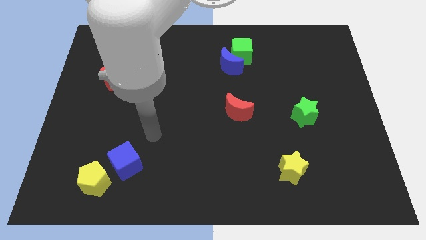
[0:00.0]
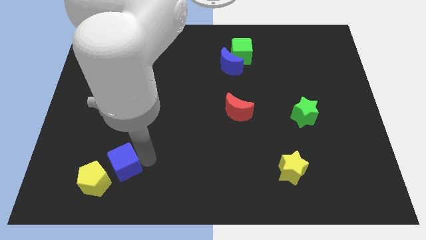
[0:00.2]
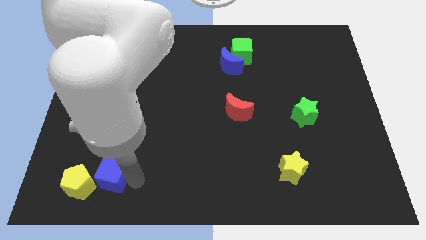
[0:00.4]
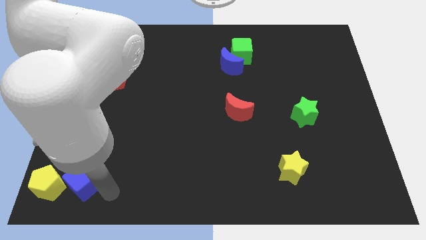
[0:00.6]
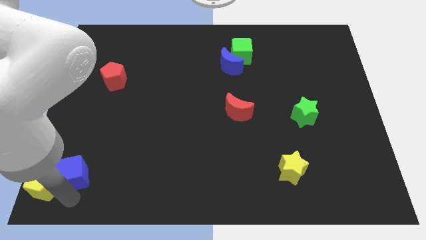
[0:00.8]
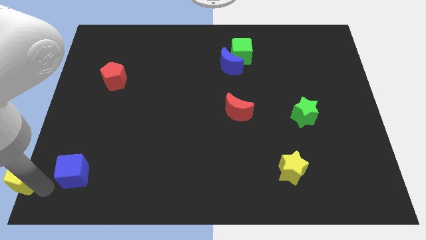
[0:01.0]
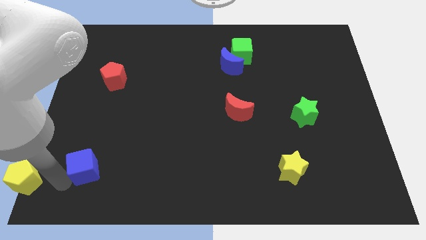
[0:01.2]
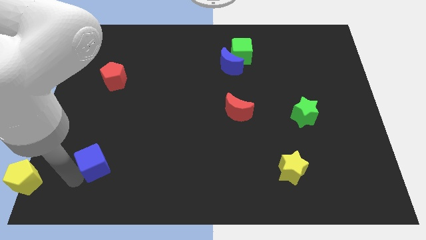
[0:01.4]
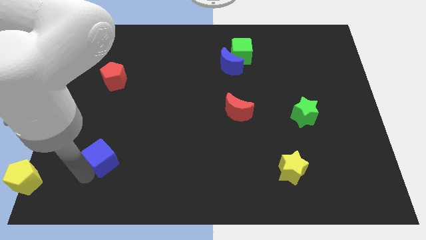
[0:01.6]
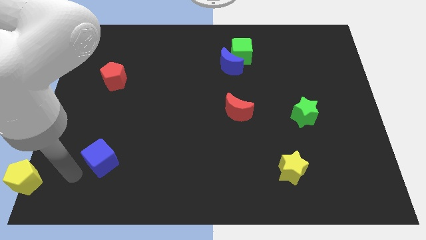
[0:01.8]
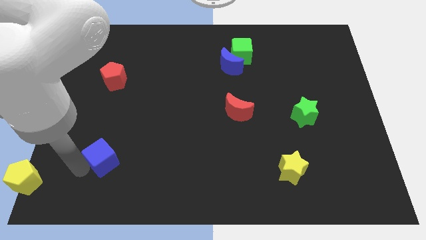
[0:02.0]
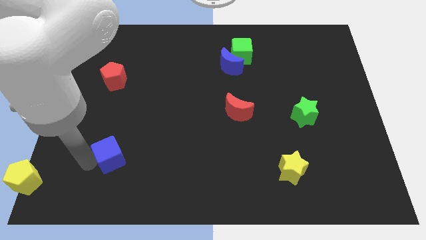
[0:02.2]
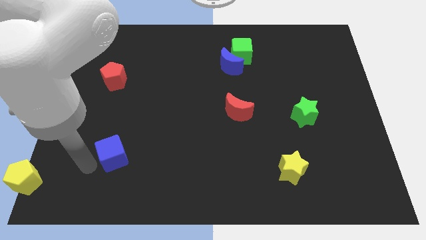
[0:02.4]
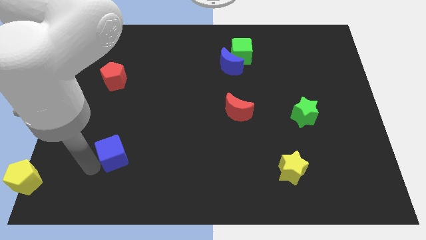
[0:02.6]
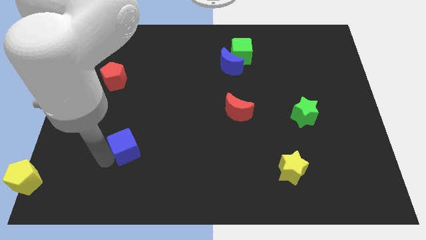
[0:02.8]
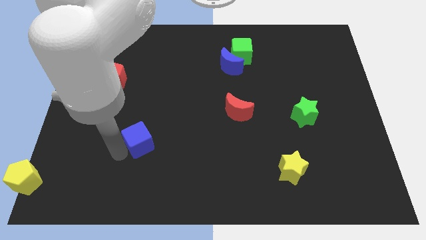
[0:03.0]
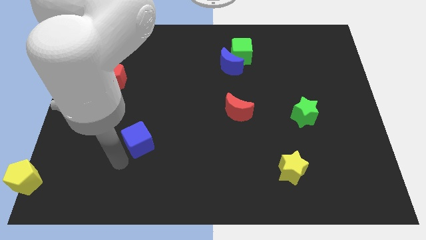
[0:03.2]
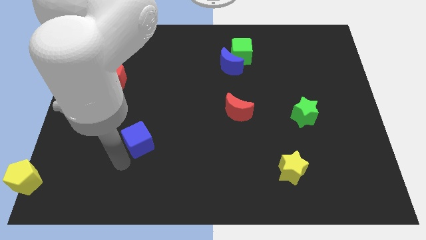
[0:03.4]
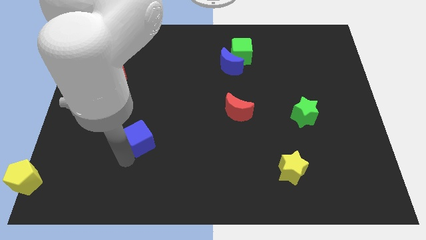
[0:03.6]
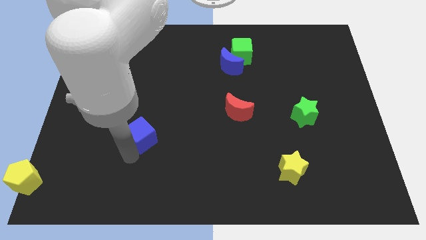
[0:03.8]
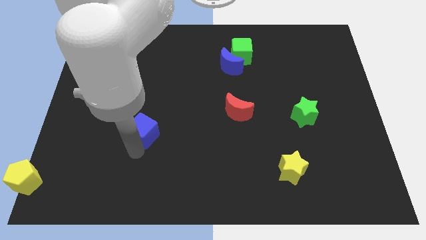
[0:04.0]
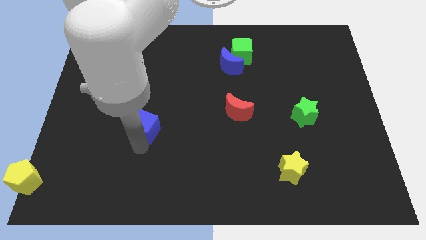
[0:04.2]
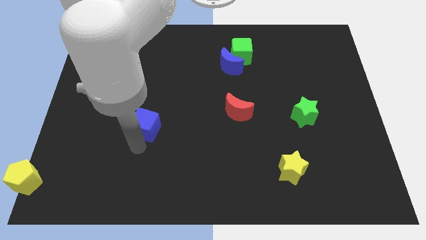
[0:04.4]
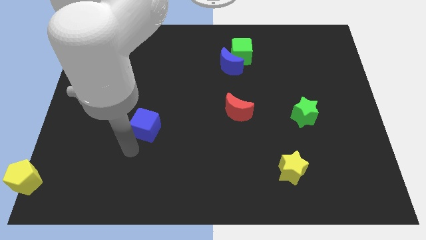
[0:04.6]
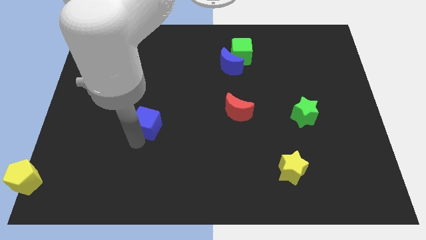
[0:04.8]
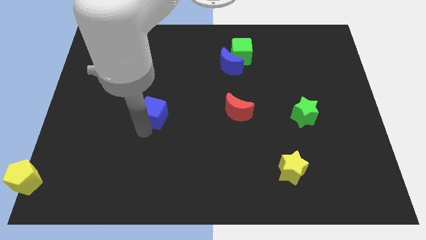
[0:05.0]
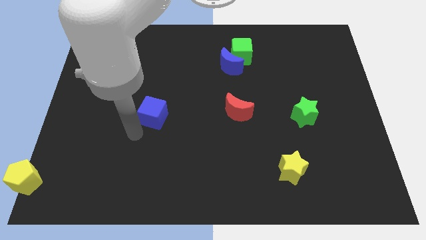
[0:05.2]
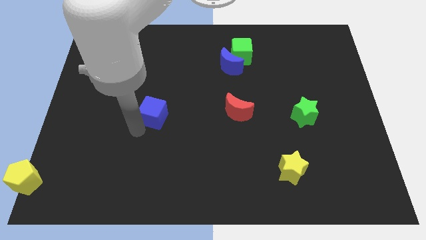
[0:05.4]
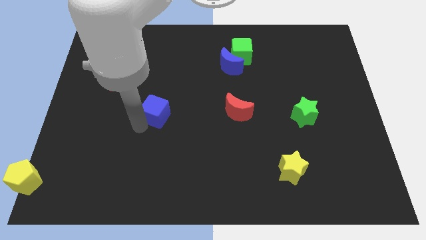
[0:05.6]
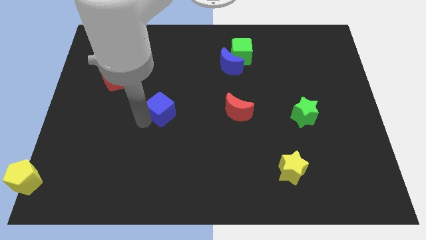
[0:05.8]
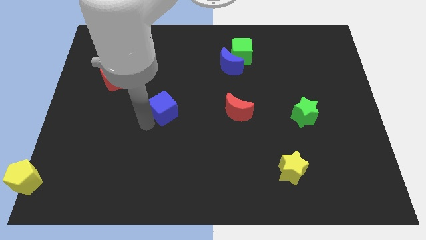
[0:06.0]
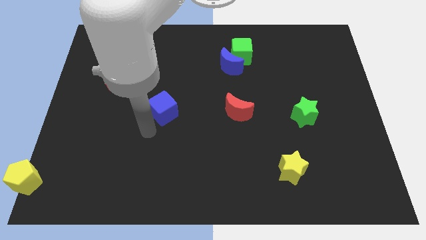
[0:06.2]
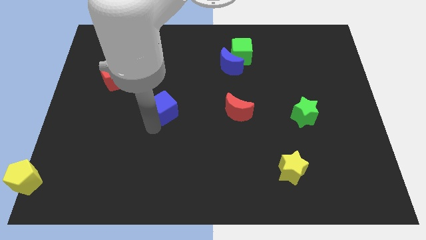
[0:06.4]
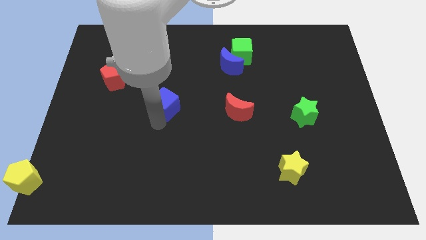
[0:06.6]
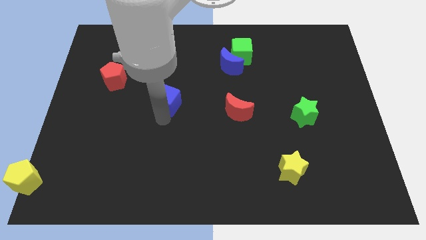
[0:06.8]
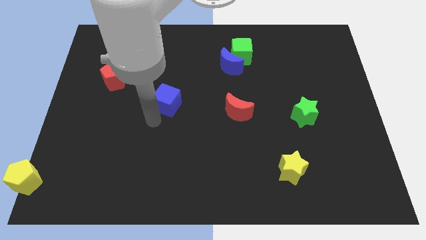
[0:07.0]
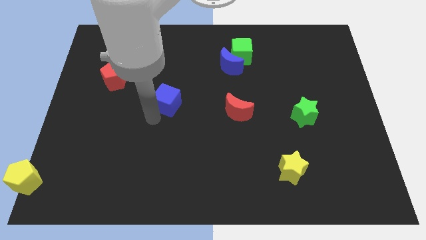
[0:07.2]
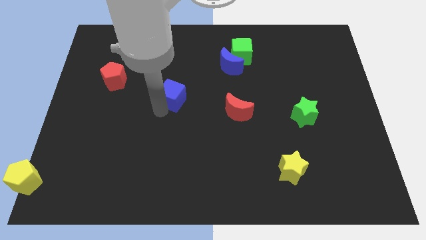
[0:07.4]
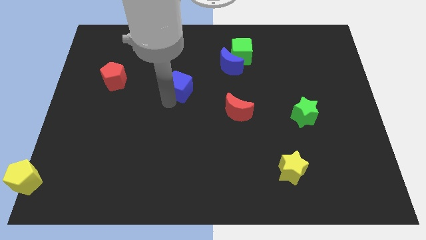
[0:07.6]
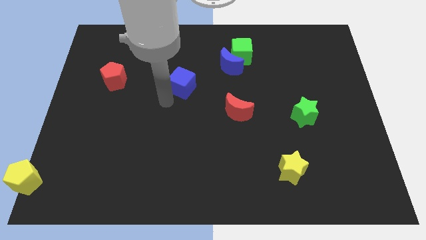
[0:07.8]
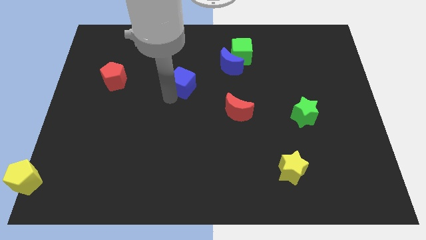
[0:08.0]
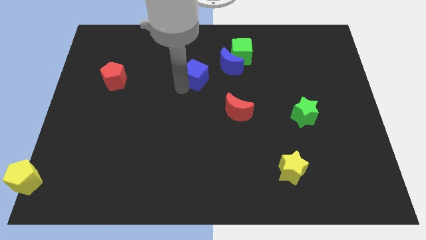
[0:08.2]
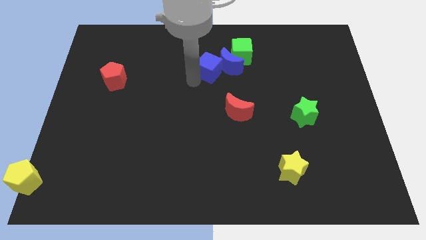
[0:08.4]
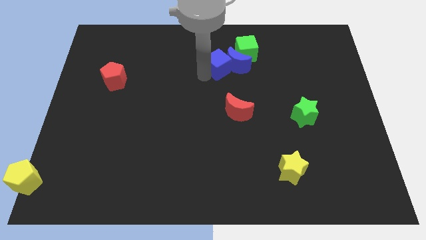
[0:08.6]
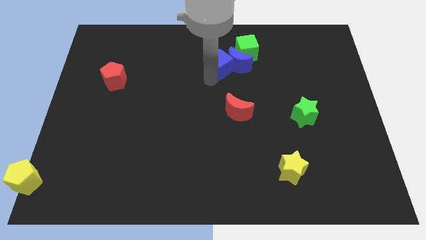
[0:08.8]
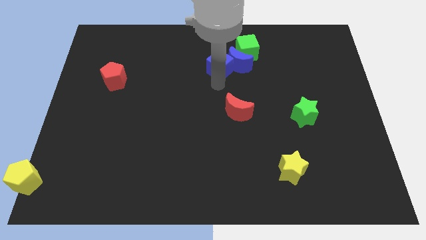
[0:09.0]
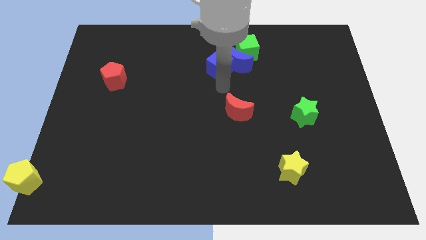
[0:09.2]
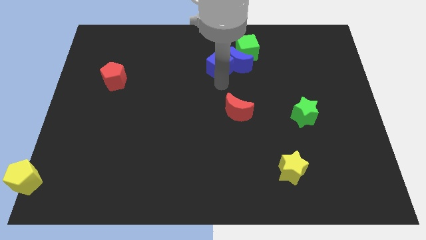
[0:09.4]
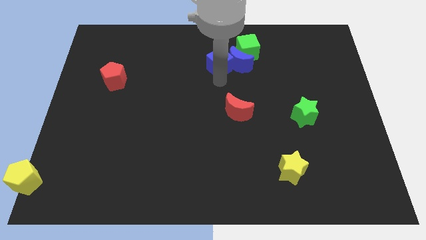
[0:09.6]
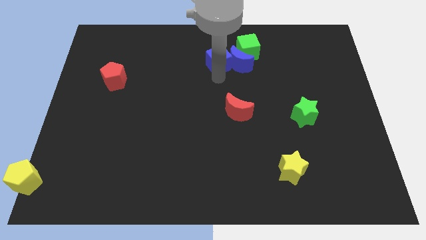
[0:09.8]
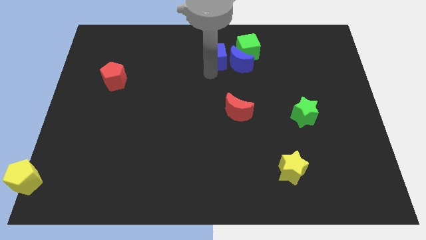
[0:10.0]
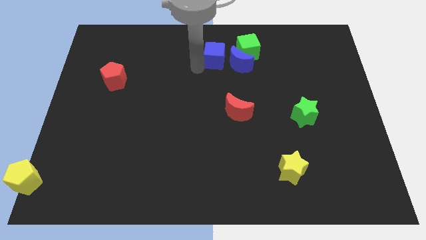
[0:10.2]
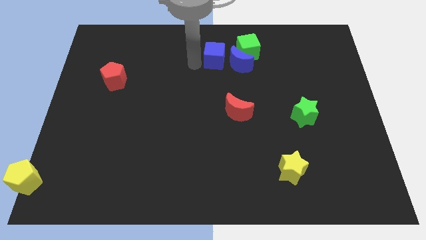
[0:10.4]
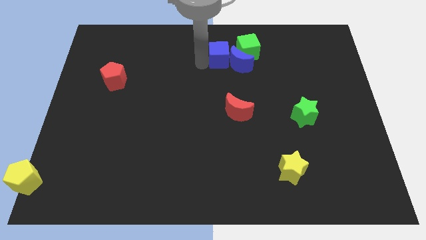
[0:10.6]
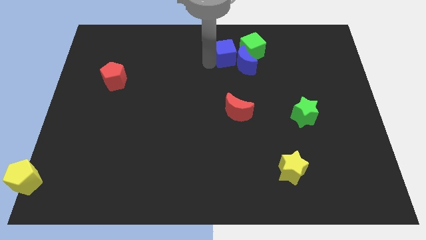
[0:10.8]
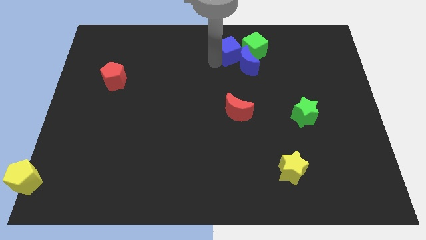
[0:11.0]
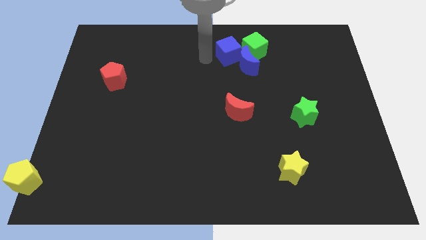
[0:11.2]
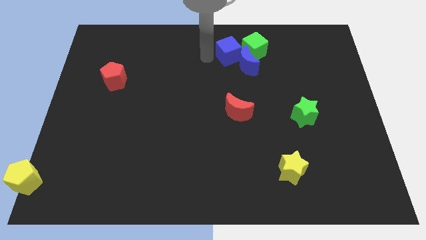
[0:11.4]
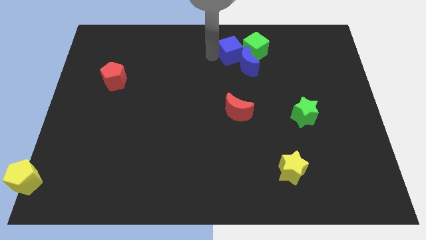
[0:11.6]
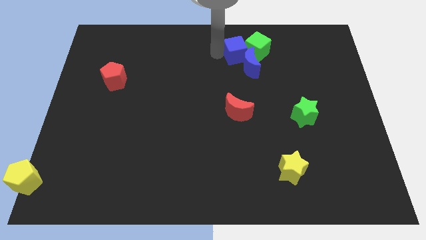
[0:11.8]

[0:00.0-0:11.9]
move the blue cube next to the green cube

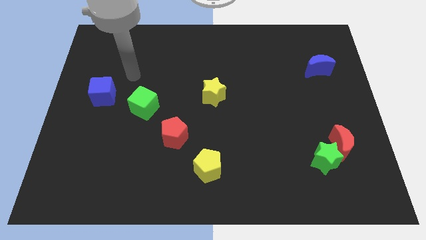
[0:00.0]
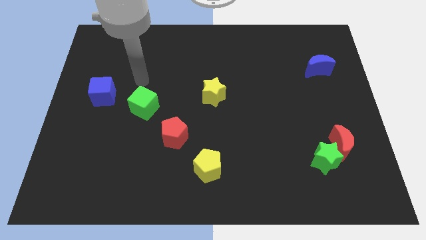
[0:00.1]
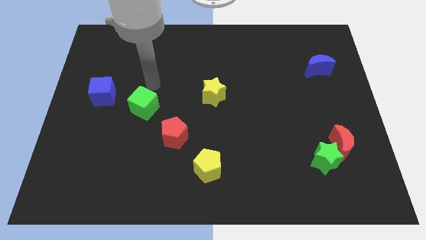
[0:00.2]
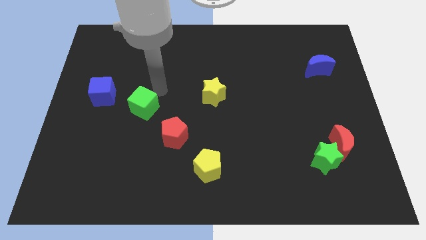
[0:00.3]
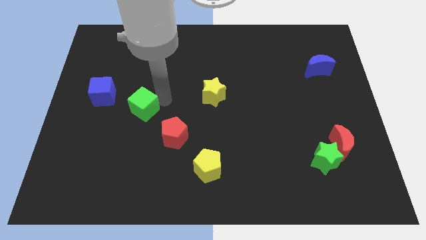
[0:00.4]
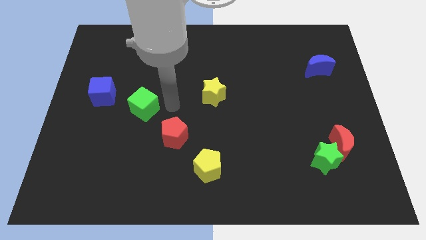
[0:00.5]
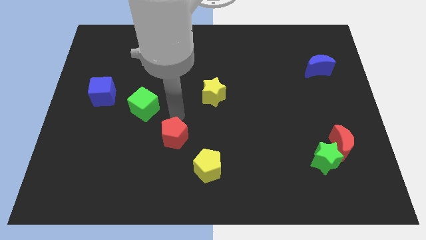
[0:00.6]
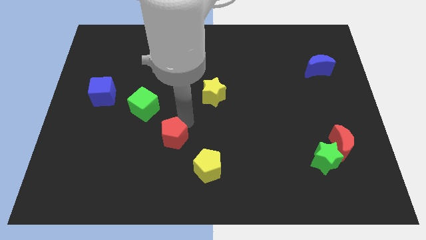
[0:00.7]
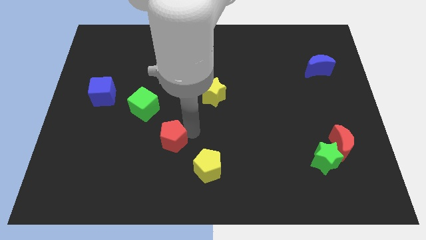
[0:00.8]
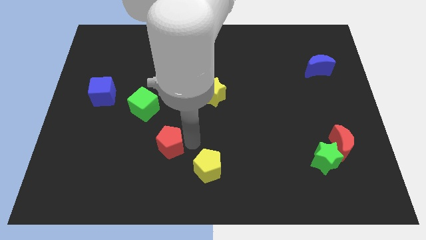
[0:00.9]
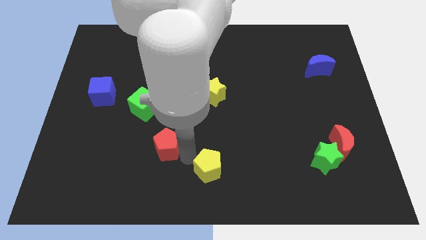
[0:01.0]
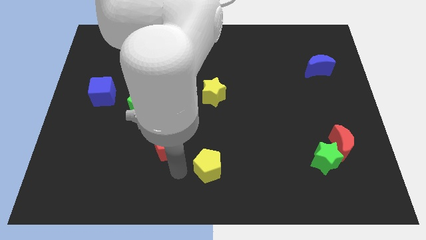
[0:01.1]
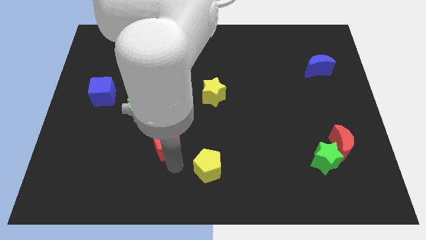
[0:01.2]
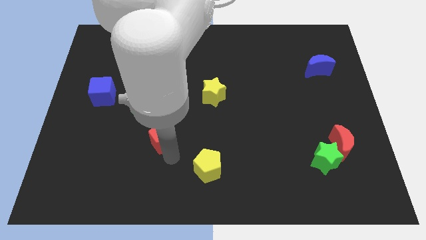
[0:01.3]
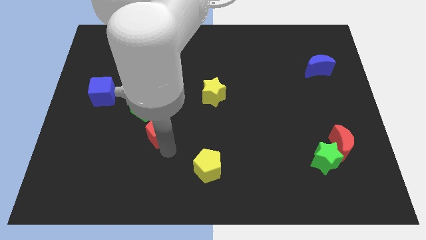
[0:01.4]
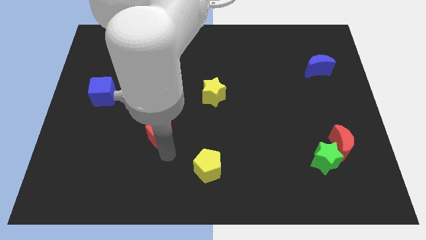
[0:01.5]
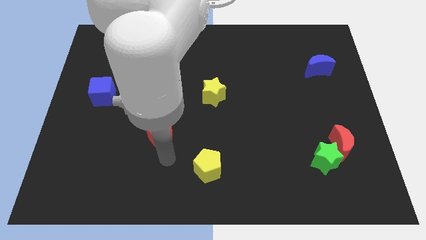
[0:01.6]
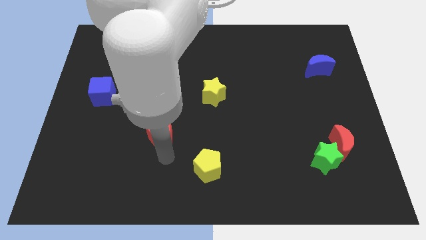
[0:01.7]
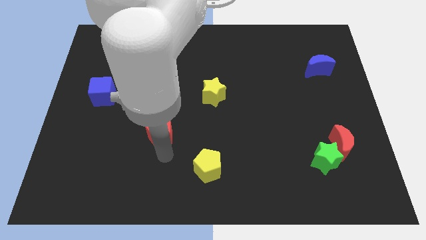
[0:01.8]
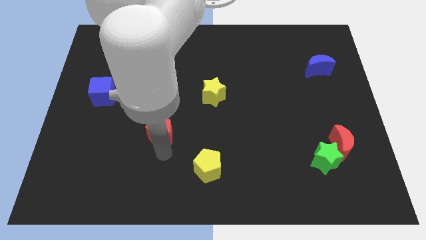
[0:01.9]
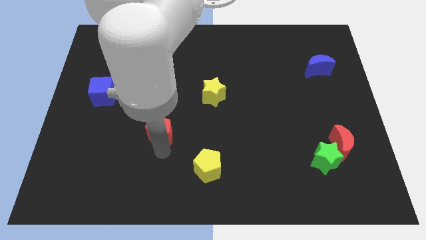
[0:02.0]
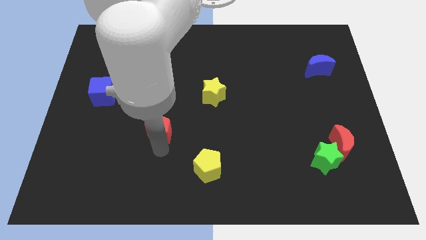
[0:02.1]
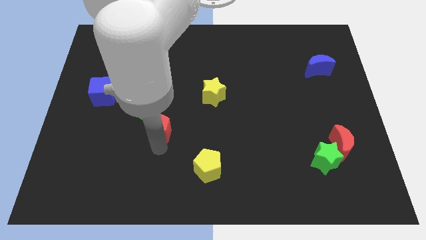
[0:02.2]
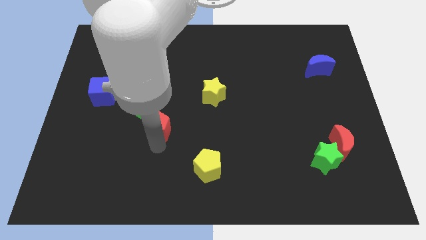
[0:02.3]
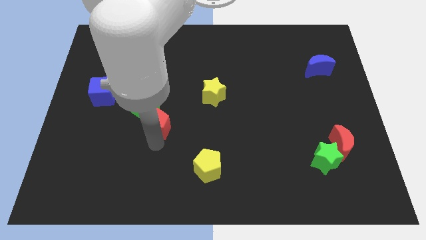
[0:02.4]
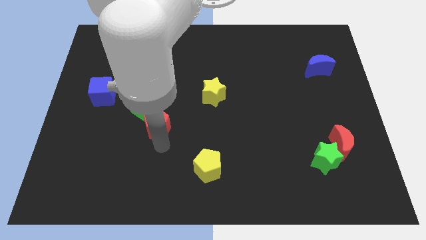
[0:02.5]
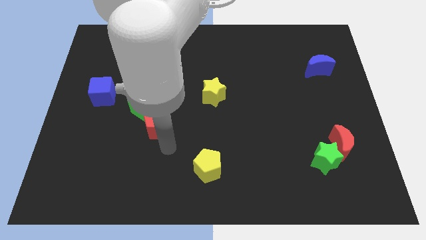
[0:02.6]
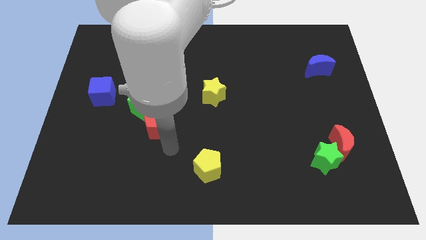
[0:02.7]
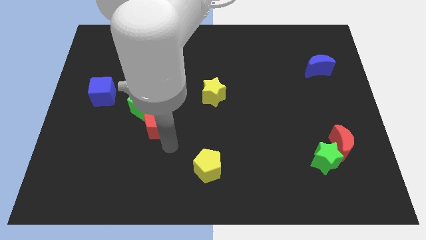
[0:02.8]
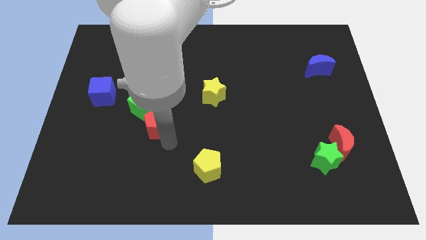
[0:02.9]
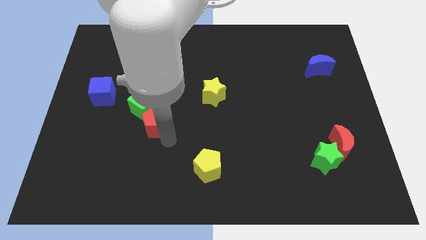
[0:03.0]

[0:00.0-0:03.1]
slide the red pentagon next to the green cube
